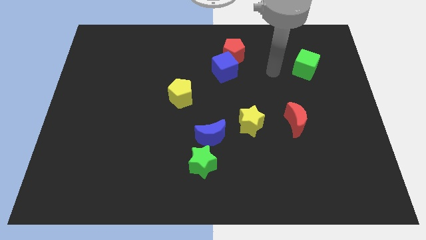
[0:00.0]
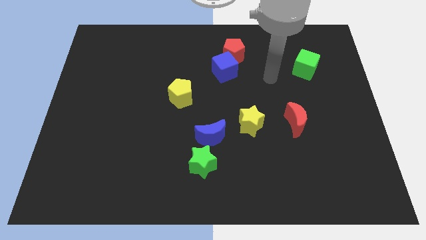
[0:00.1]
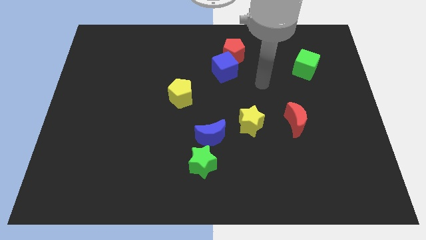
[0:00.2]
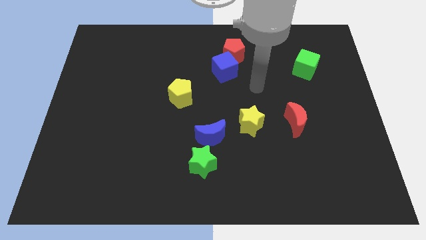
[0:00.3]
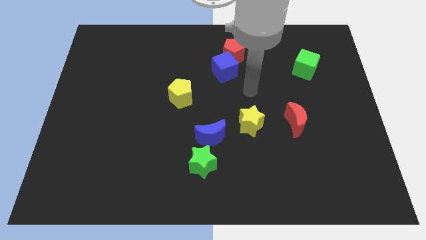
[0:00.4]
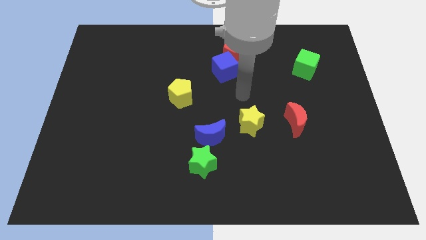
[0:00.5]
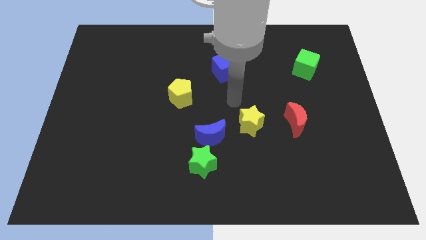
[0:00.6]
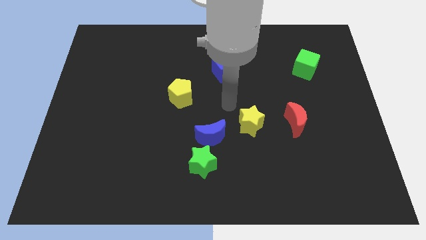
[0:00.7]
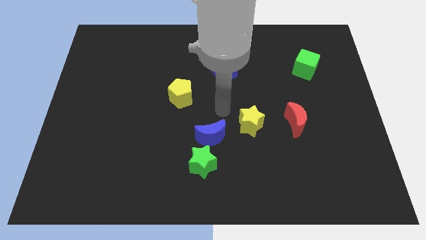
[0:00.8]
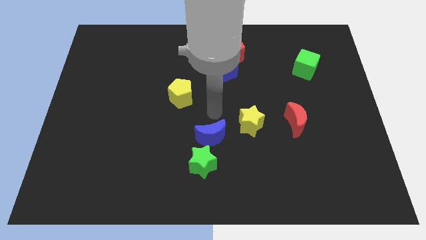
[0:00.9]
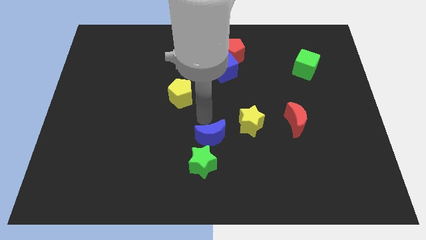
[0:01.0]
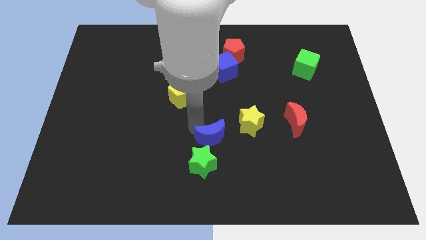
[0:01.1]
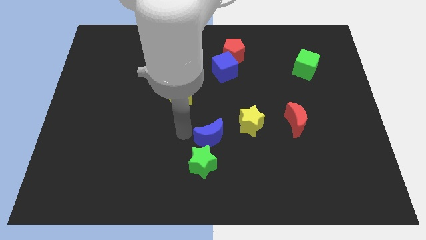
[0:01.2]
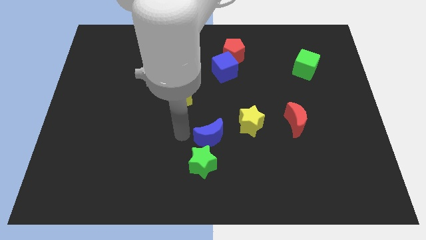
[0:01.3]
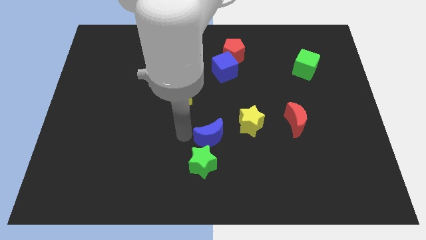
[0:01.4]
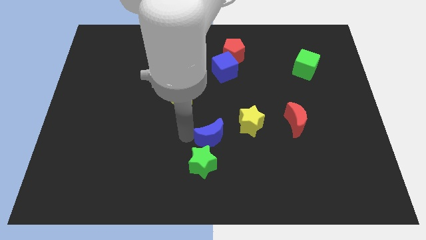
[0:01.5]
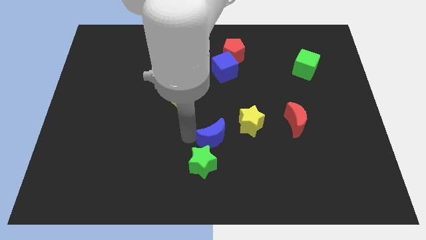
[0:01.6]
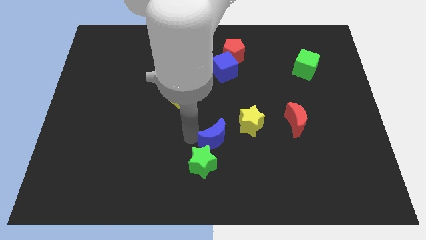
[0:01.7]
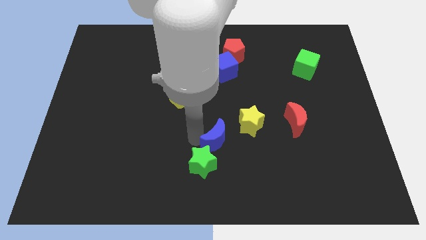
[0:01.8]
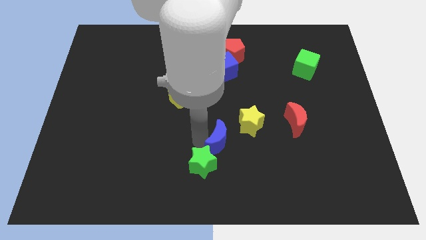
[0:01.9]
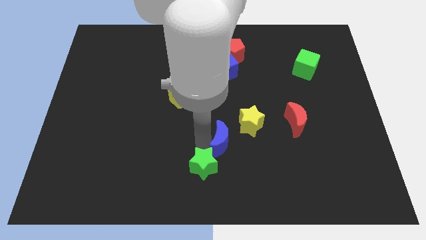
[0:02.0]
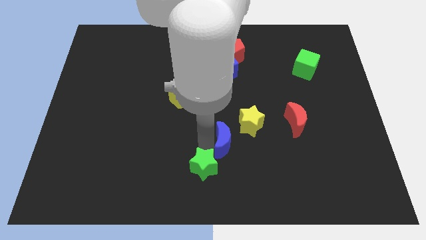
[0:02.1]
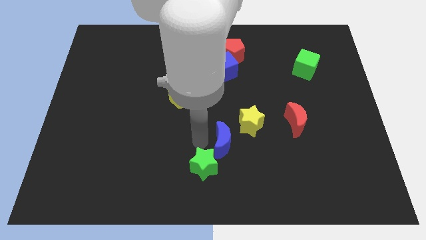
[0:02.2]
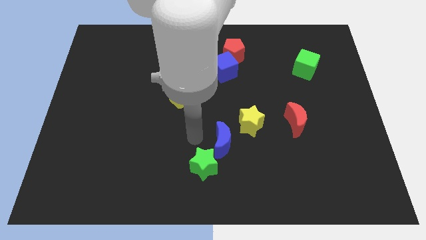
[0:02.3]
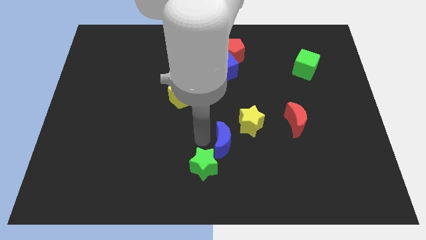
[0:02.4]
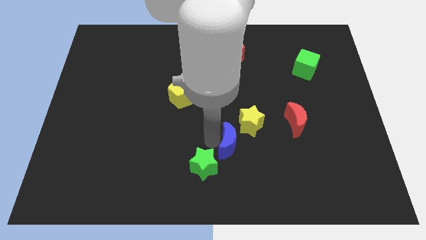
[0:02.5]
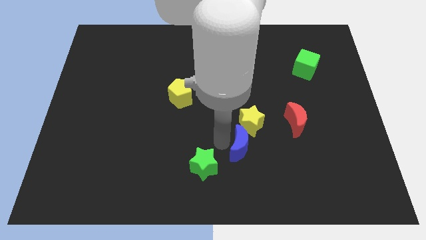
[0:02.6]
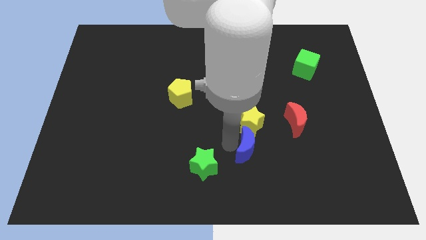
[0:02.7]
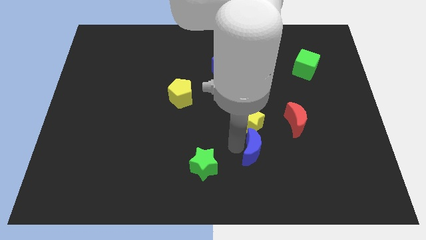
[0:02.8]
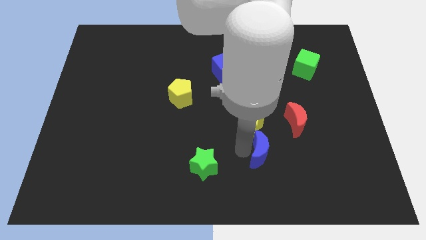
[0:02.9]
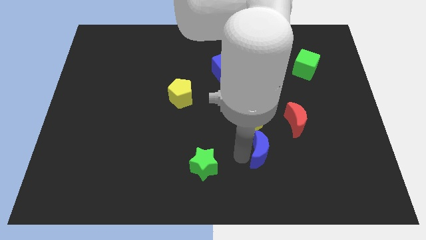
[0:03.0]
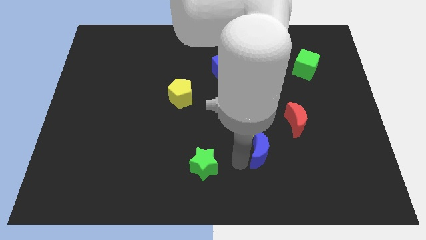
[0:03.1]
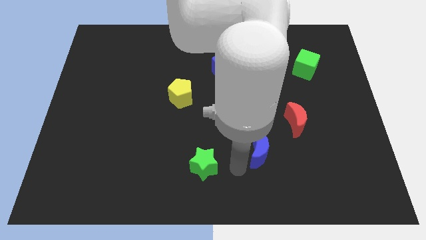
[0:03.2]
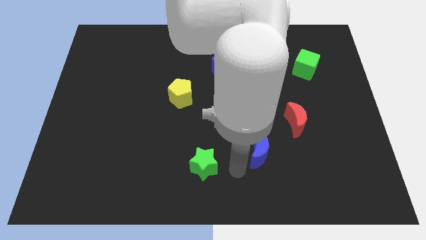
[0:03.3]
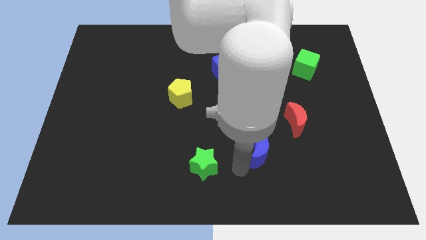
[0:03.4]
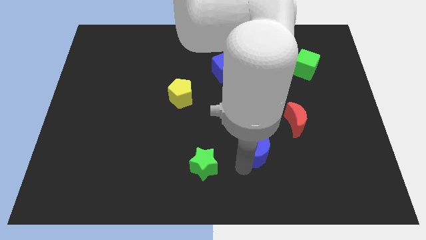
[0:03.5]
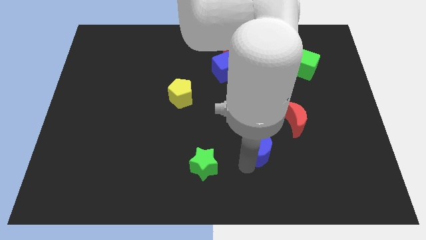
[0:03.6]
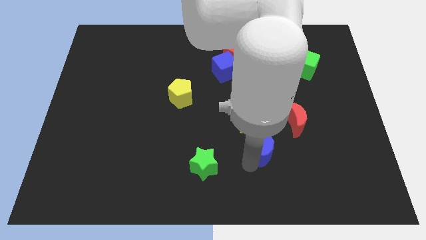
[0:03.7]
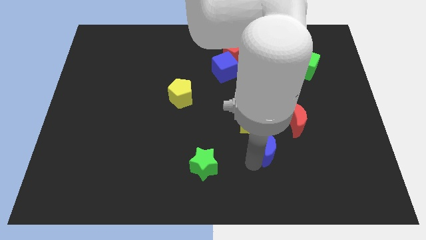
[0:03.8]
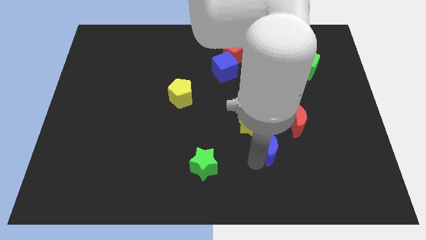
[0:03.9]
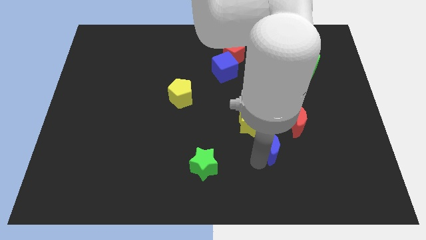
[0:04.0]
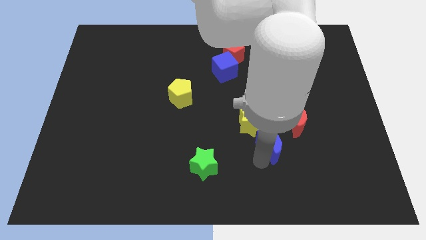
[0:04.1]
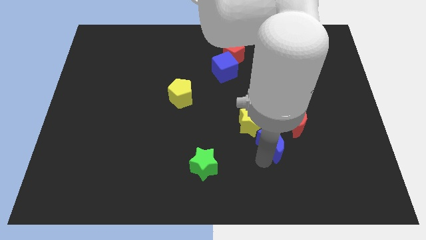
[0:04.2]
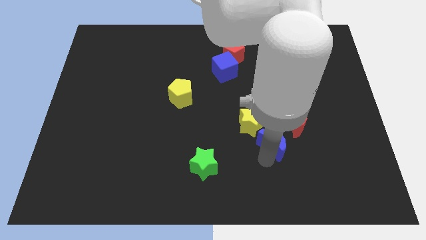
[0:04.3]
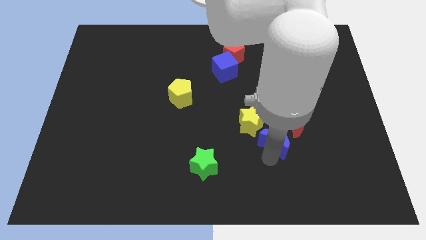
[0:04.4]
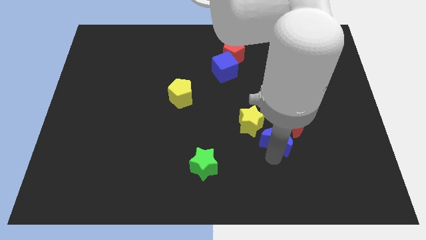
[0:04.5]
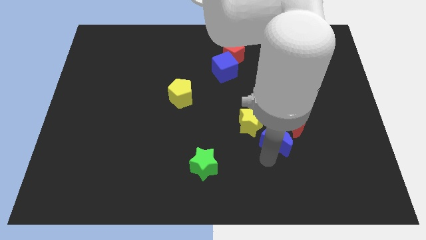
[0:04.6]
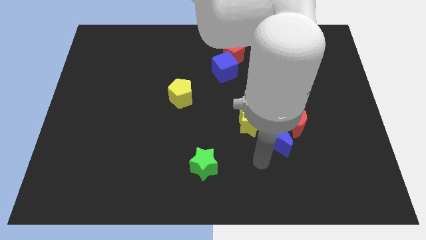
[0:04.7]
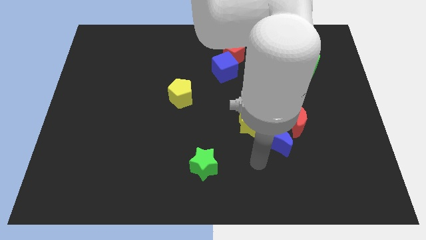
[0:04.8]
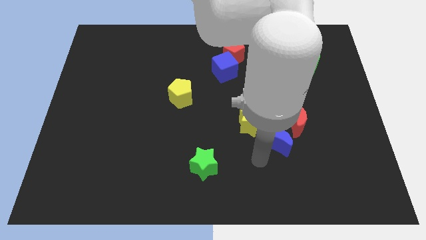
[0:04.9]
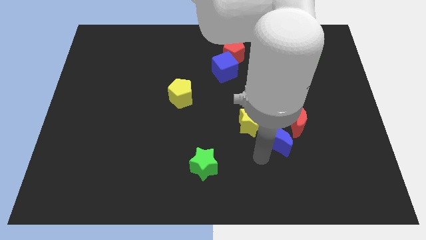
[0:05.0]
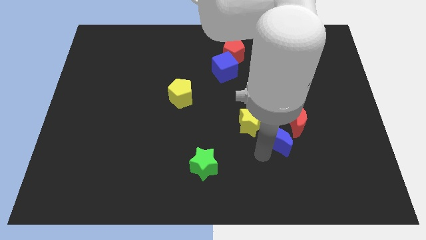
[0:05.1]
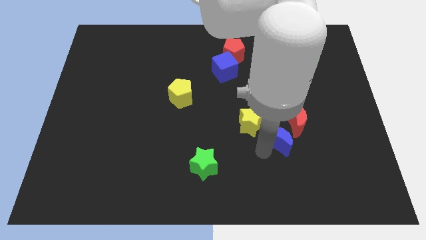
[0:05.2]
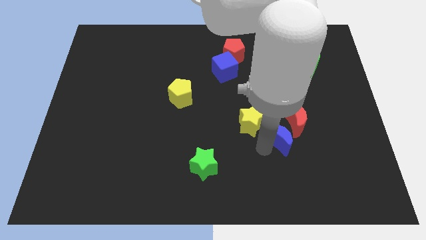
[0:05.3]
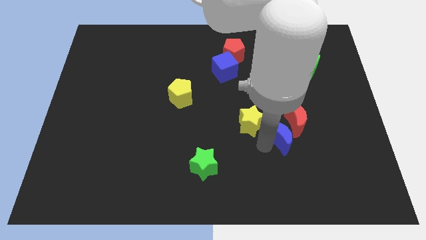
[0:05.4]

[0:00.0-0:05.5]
put the blue moon close to the red moon

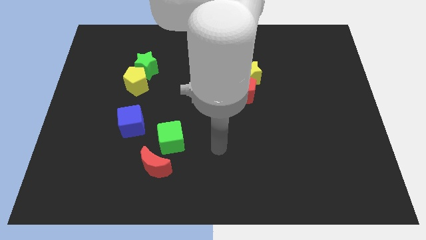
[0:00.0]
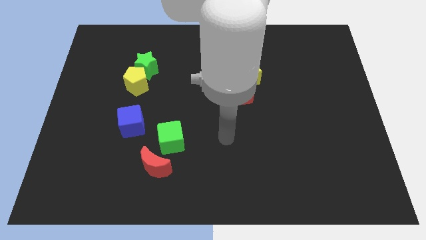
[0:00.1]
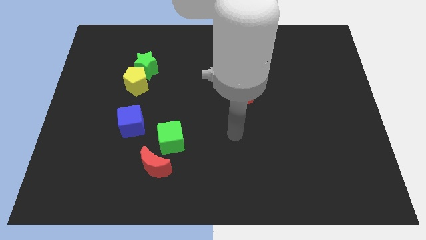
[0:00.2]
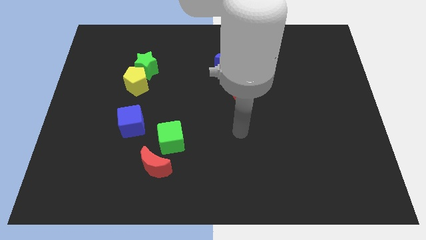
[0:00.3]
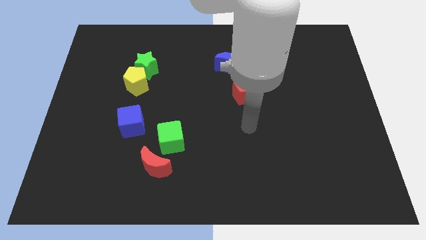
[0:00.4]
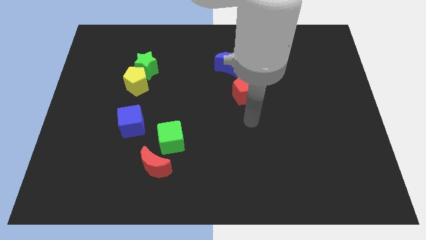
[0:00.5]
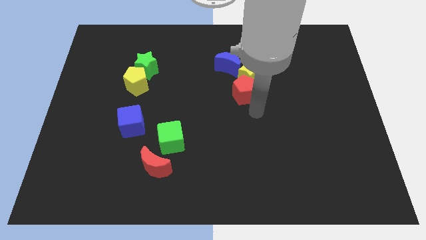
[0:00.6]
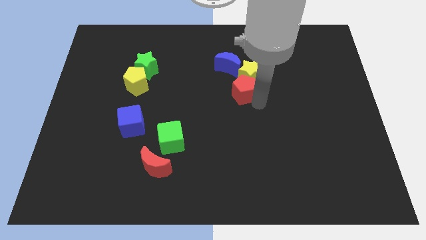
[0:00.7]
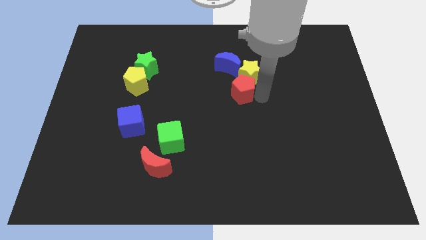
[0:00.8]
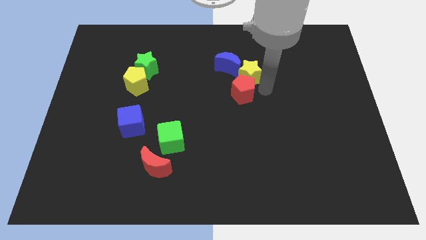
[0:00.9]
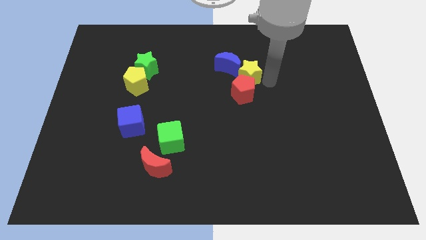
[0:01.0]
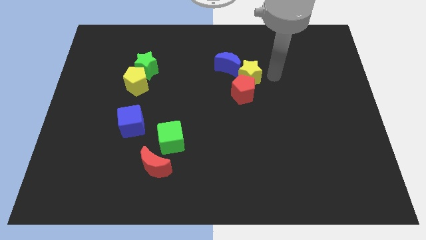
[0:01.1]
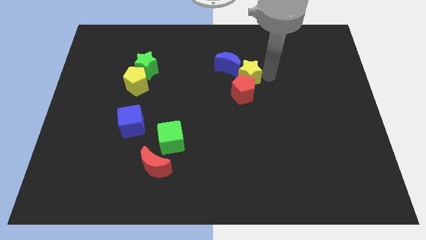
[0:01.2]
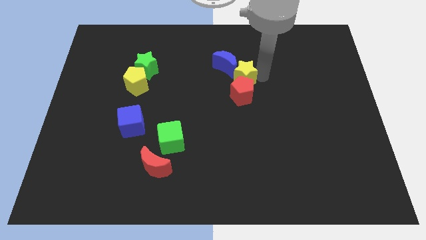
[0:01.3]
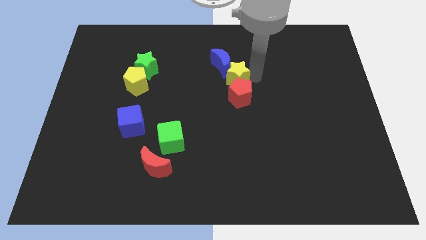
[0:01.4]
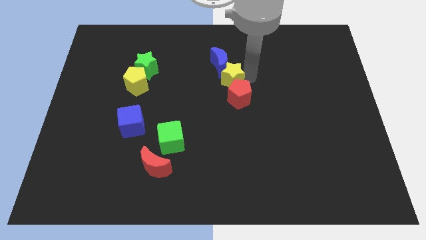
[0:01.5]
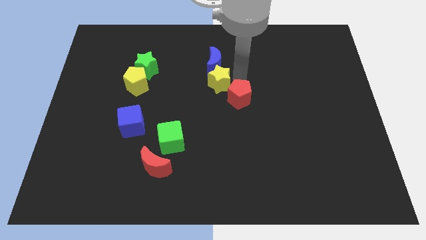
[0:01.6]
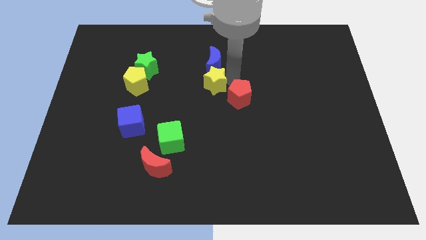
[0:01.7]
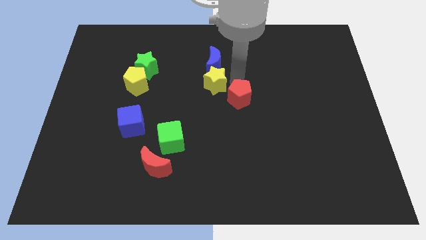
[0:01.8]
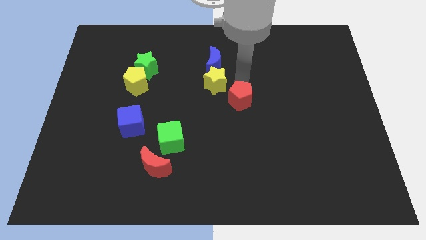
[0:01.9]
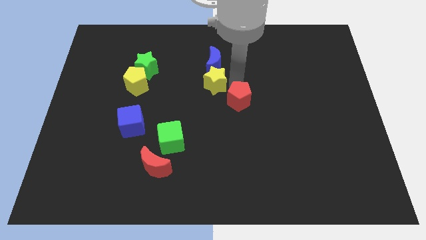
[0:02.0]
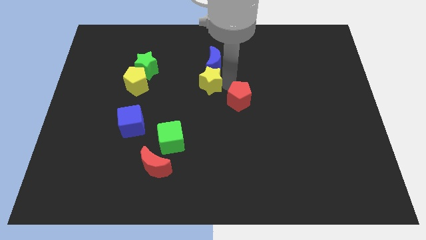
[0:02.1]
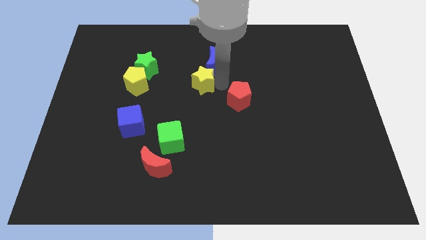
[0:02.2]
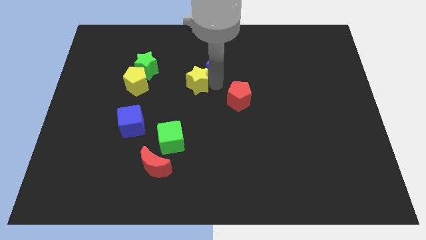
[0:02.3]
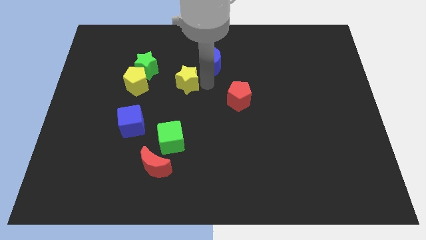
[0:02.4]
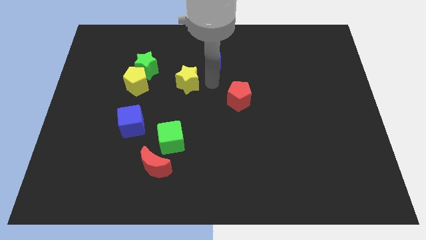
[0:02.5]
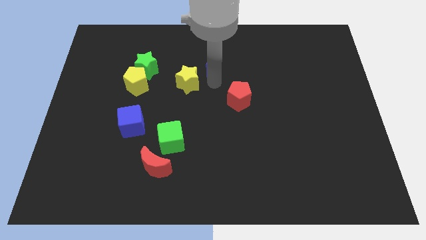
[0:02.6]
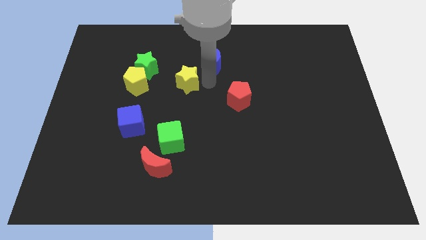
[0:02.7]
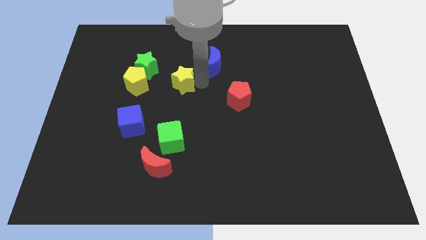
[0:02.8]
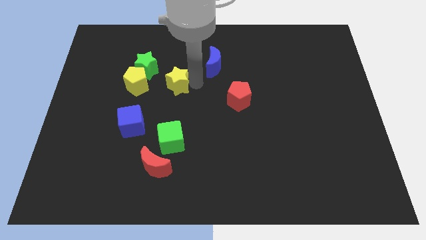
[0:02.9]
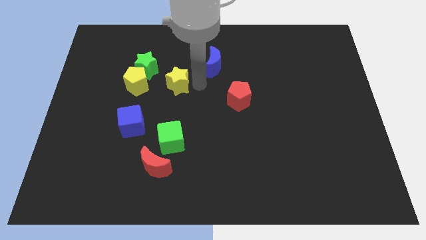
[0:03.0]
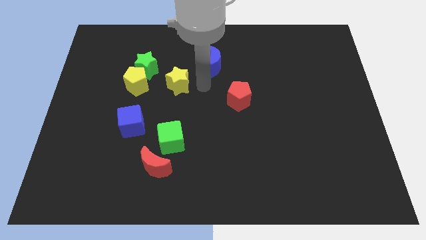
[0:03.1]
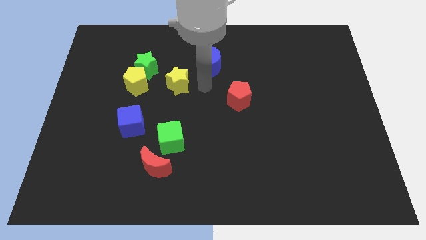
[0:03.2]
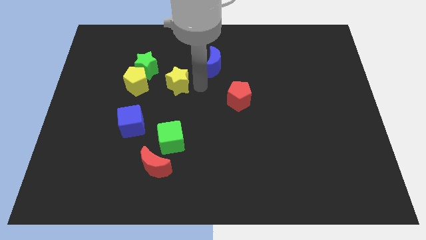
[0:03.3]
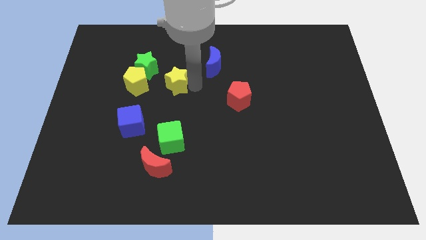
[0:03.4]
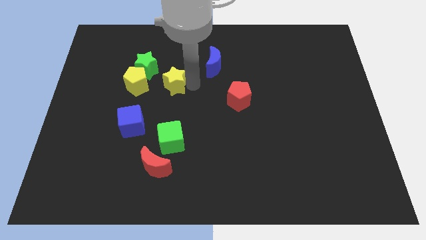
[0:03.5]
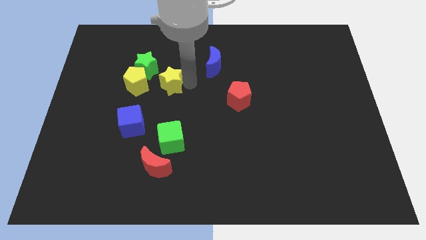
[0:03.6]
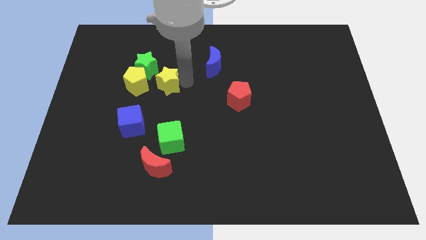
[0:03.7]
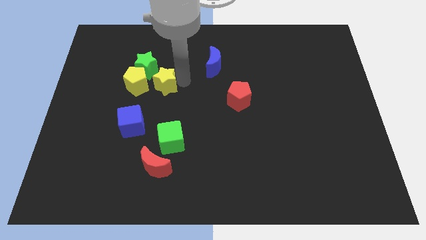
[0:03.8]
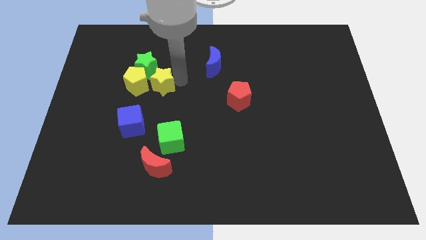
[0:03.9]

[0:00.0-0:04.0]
put the yellow star towards the yellow pentagon
